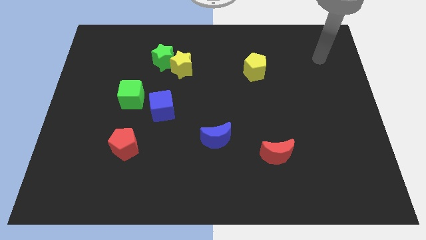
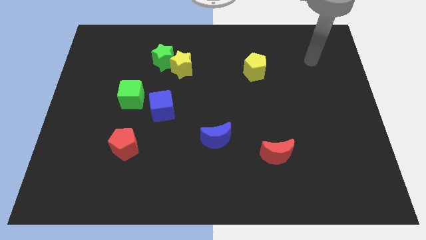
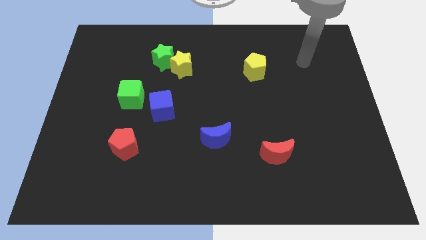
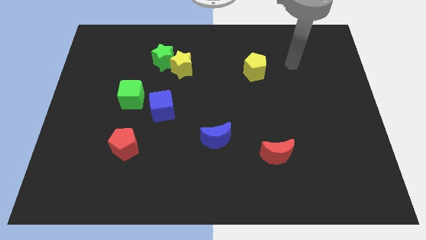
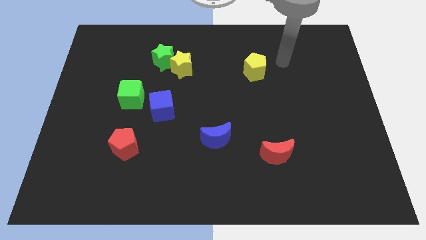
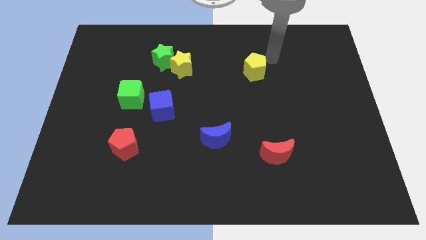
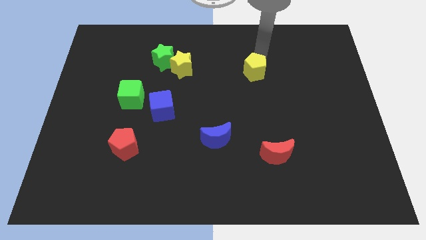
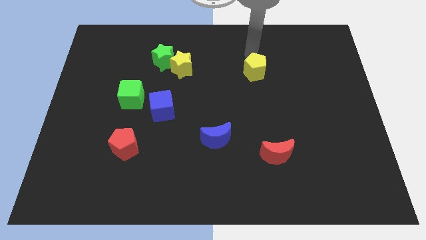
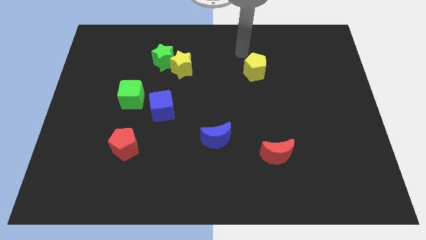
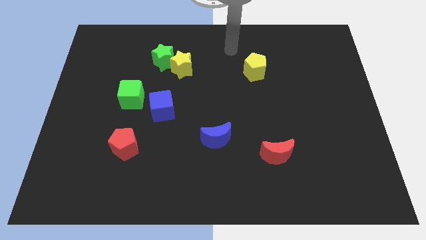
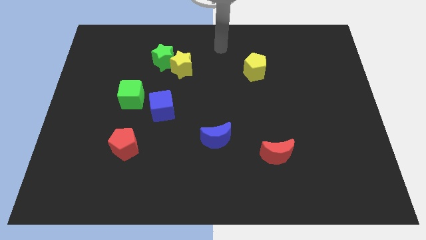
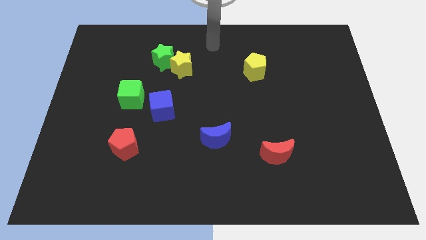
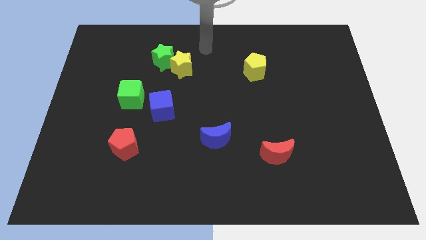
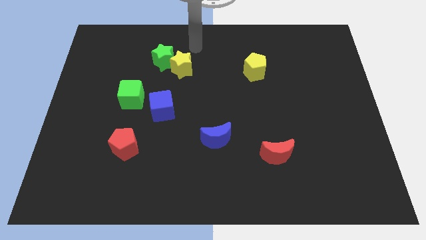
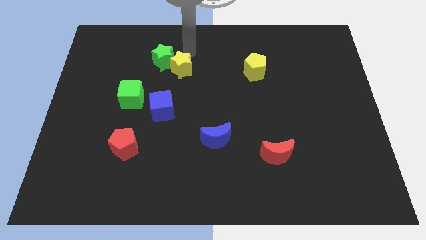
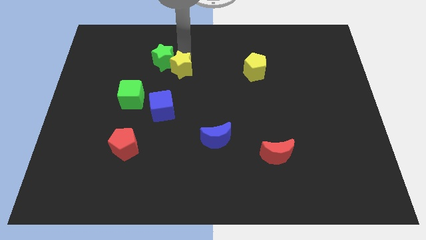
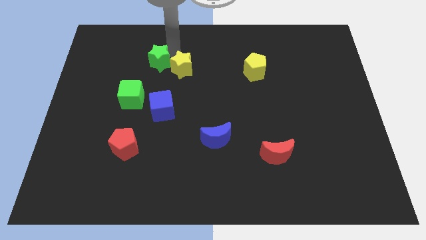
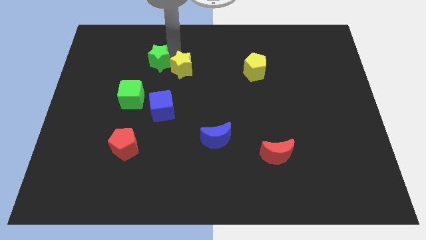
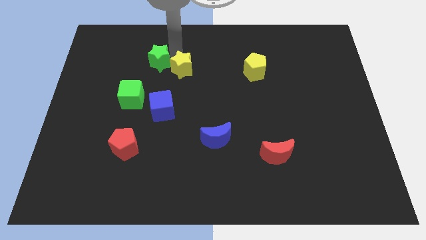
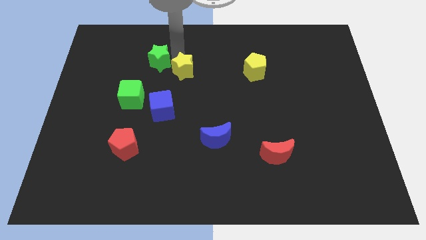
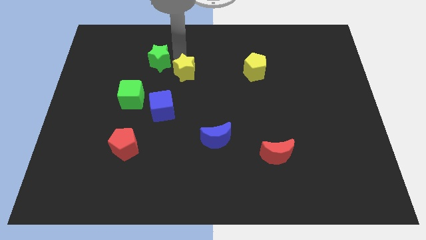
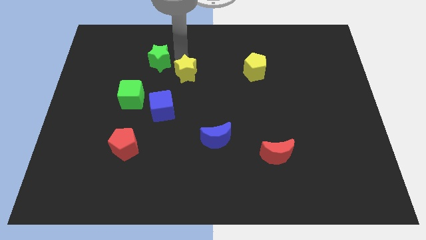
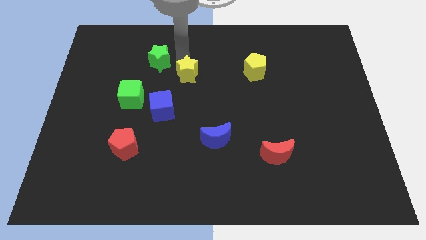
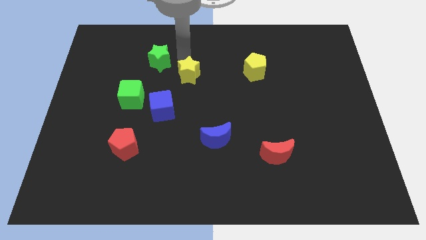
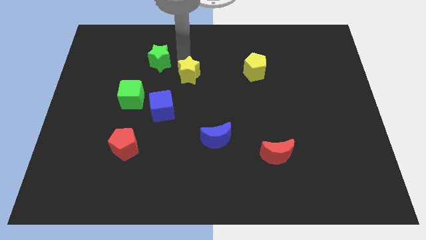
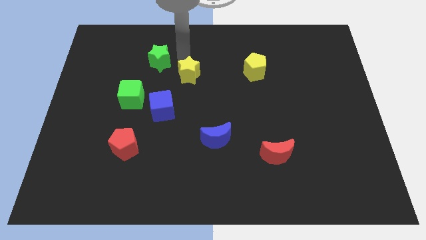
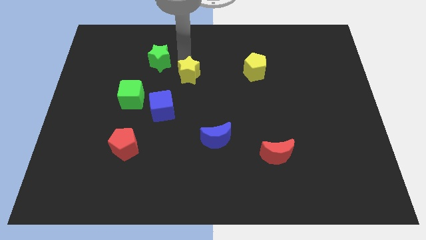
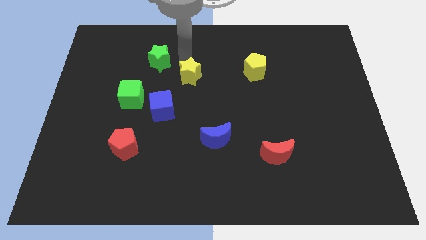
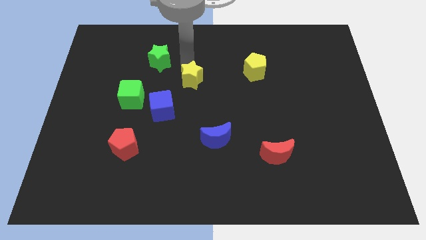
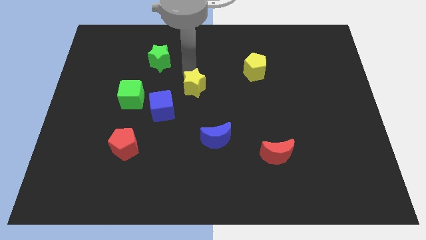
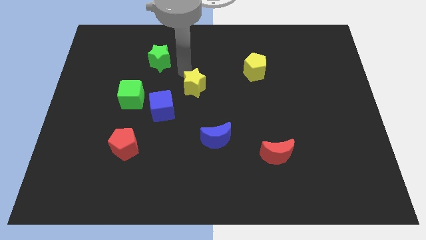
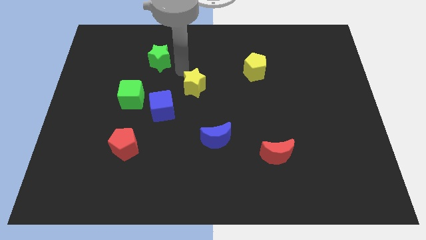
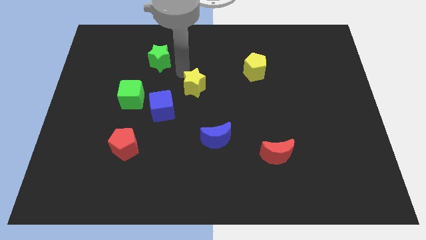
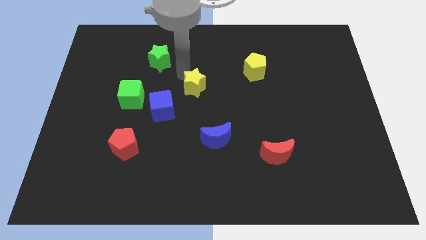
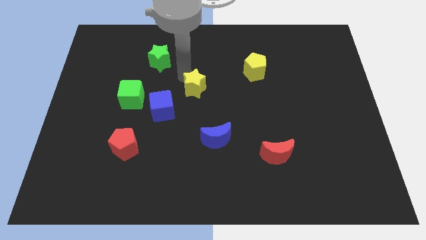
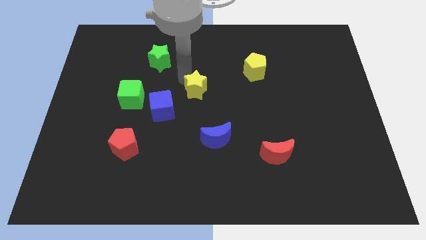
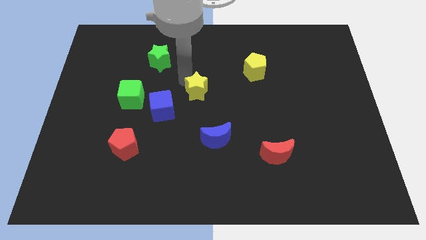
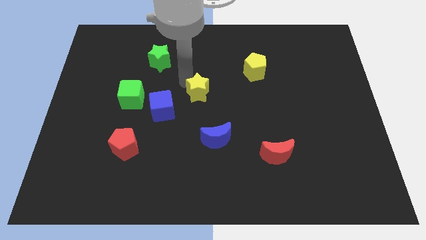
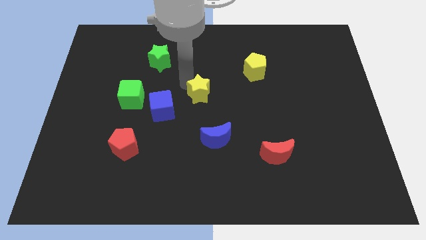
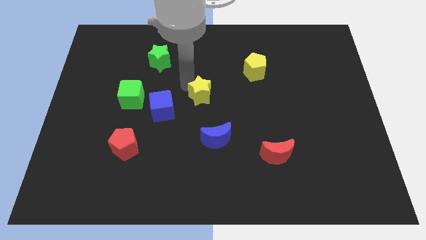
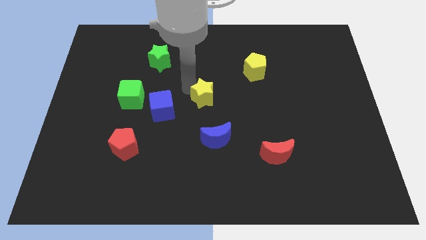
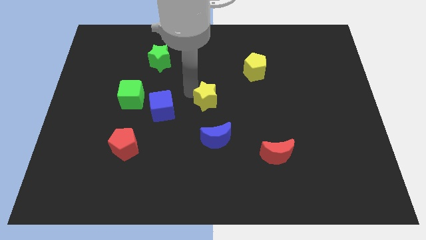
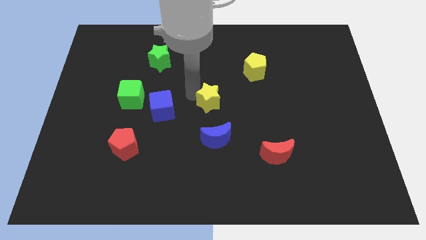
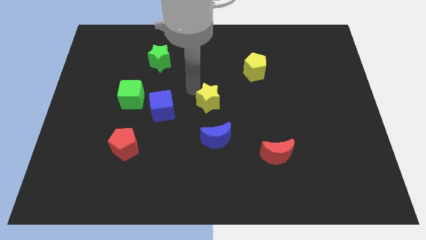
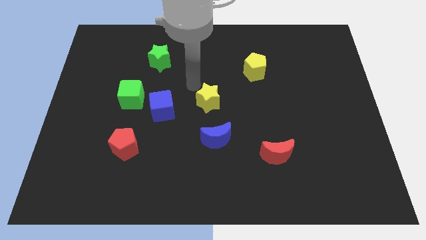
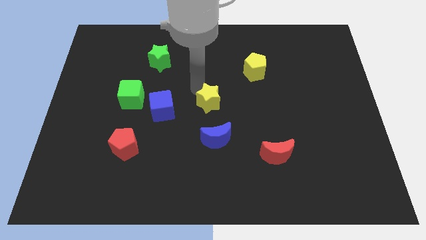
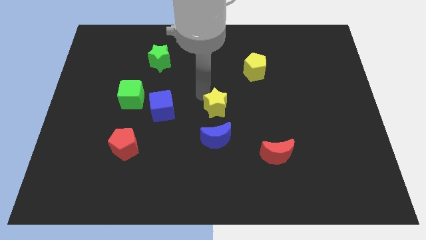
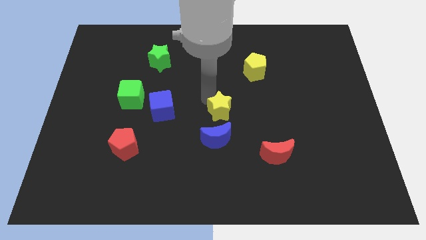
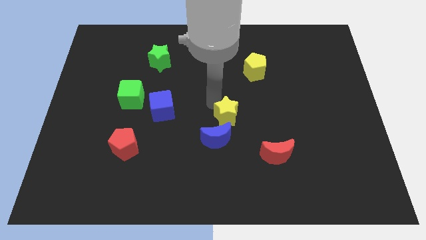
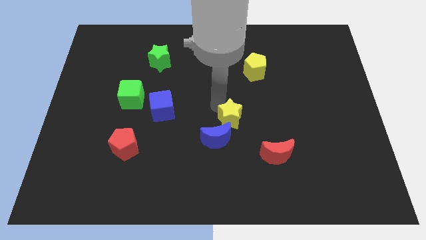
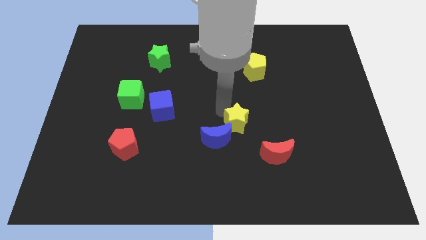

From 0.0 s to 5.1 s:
put the yellow star diagonally up and to the left of the red moon

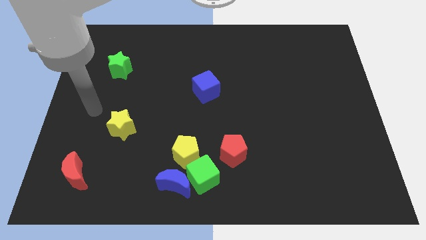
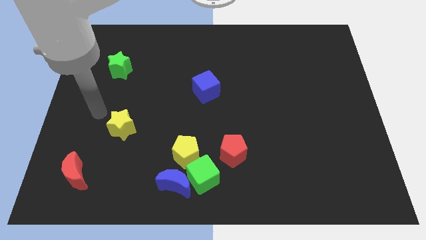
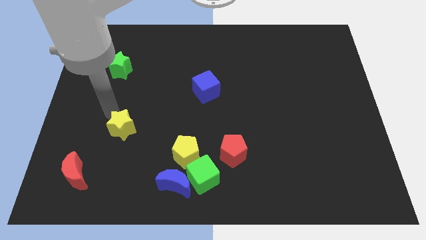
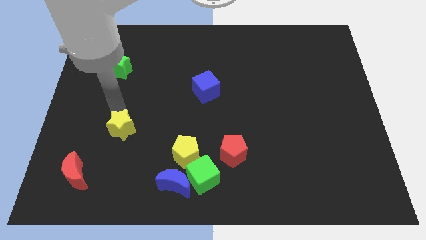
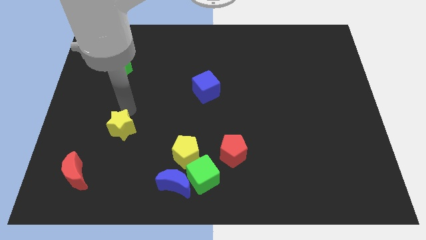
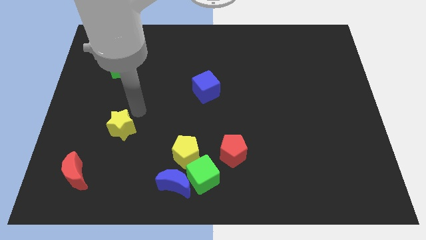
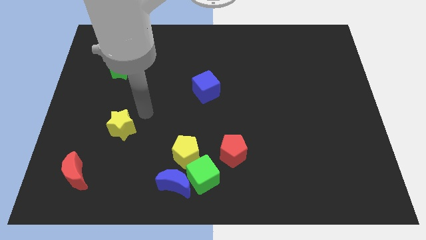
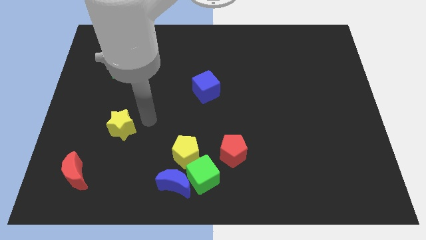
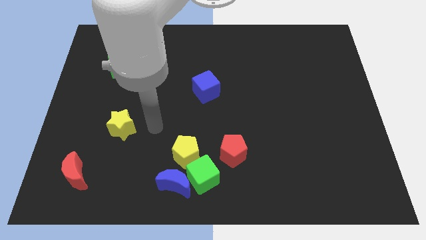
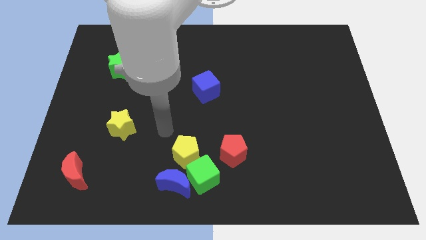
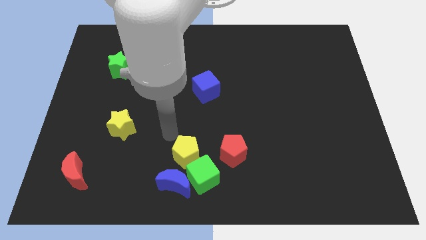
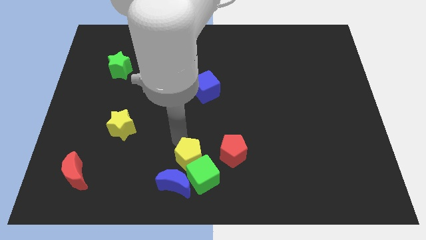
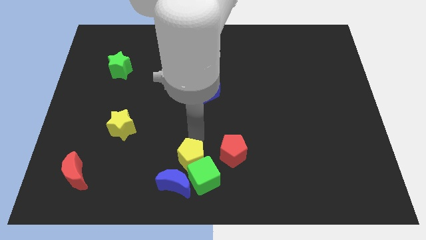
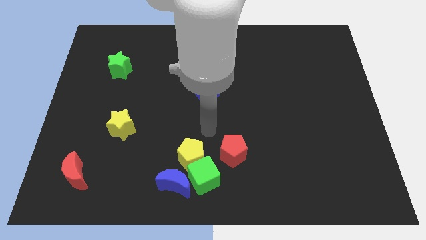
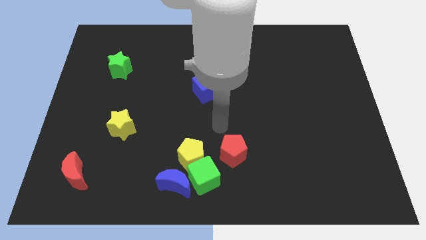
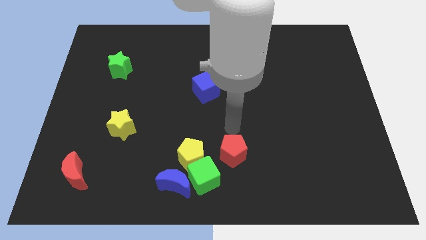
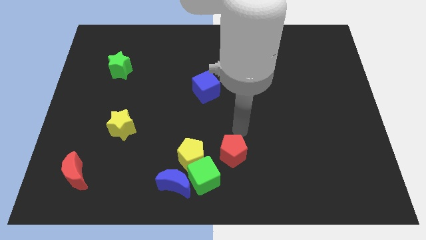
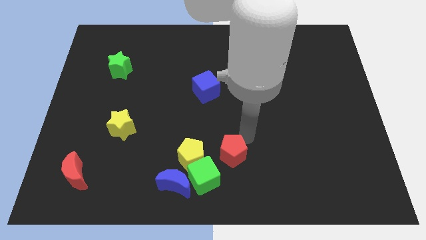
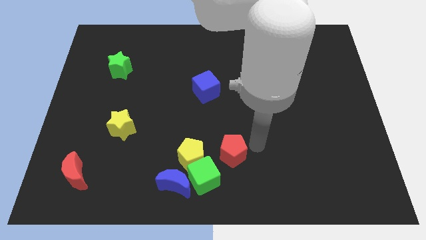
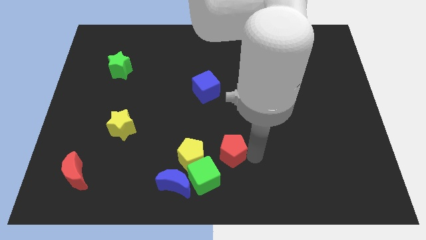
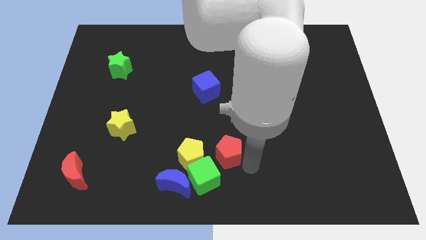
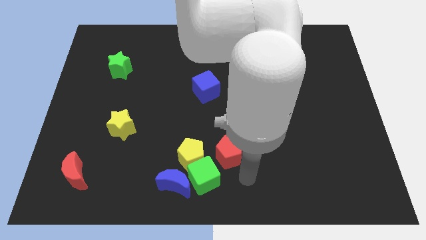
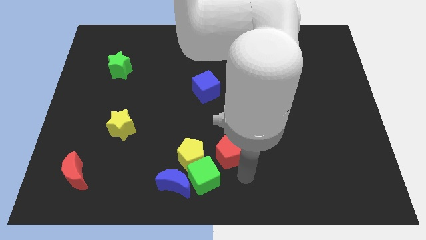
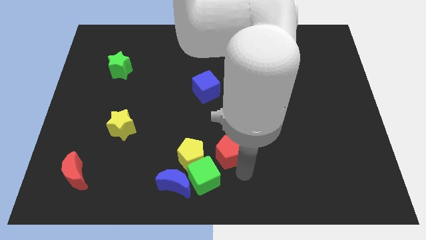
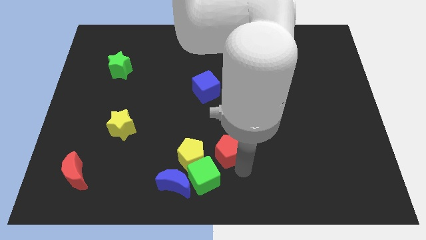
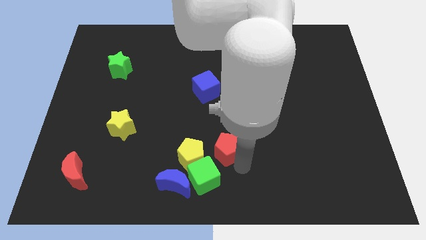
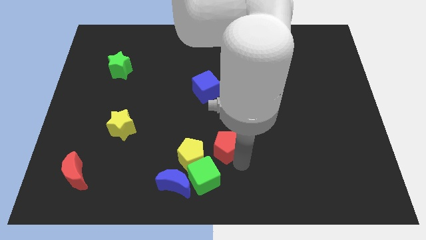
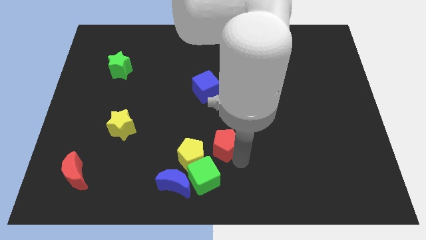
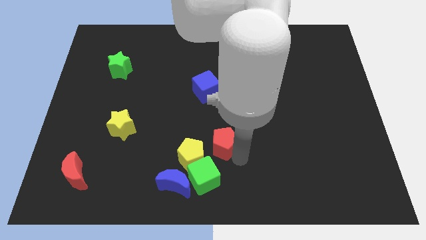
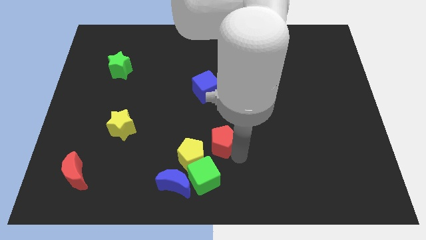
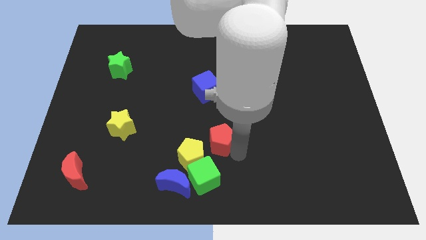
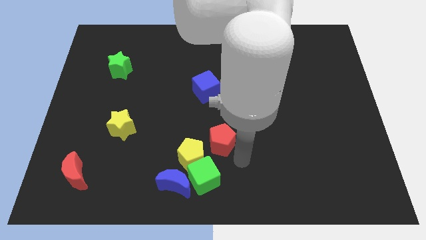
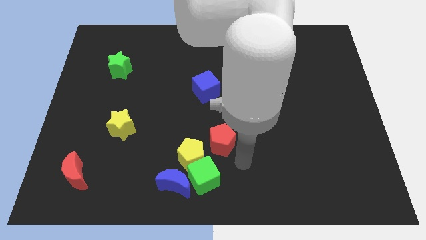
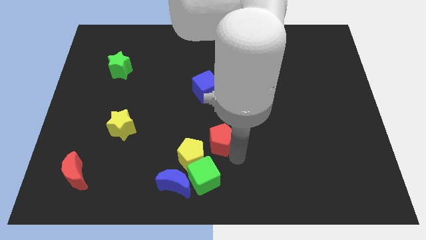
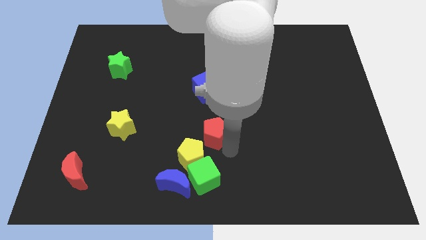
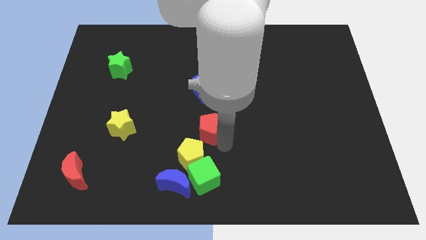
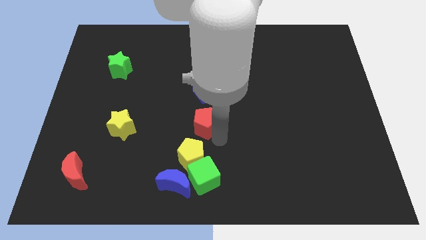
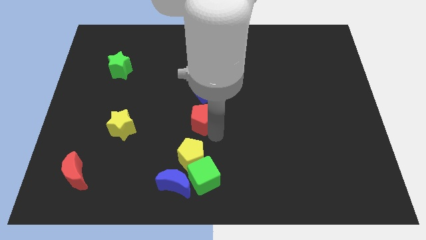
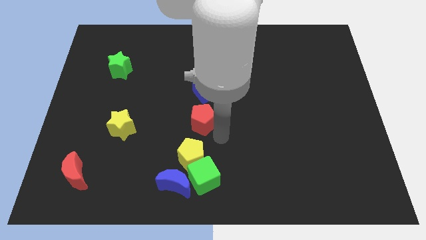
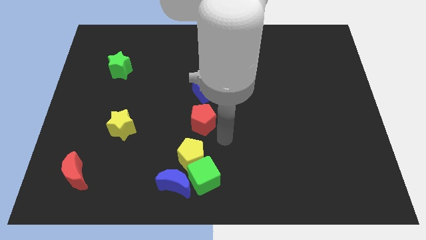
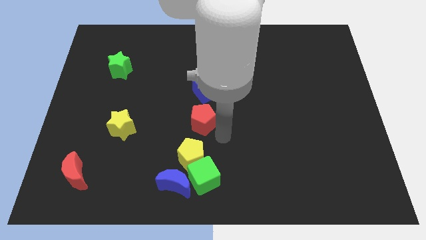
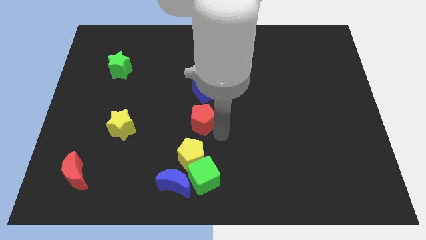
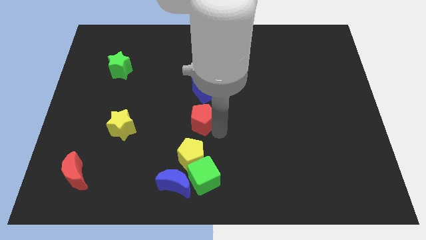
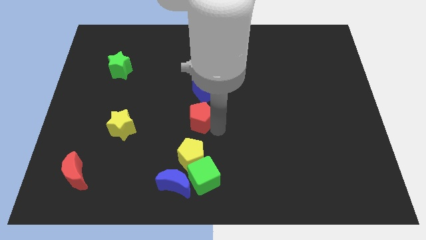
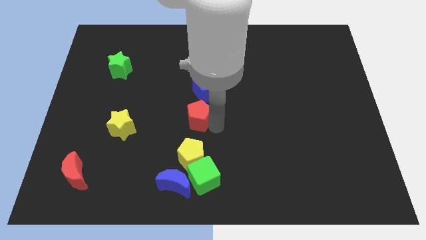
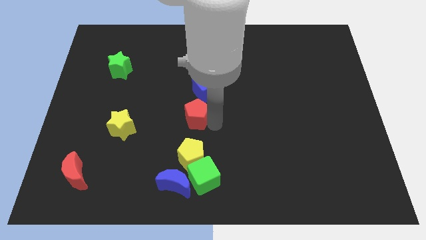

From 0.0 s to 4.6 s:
slide the red pentagon to the bottom left of the blue cube
